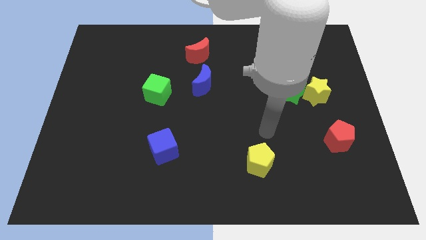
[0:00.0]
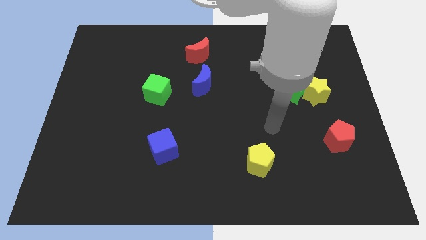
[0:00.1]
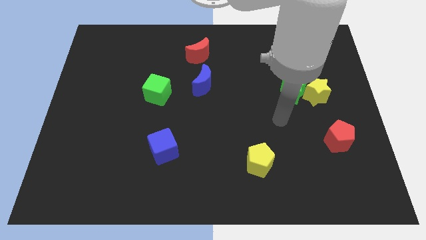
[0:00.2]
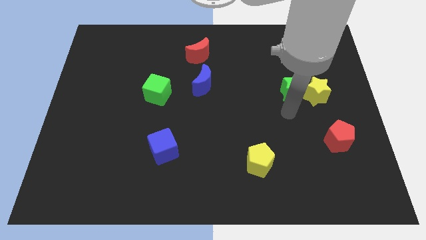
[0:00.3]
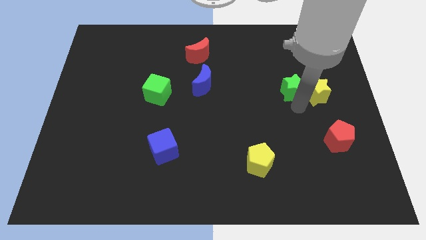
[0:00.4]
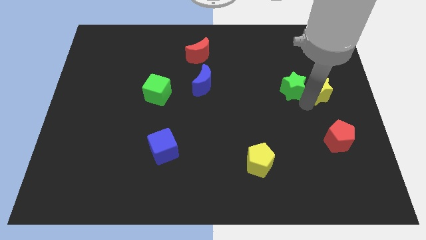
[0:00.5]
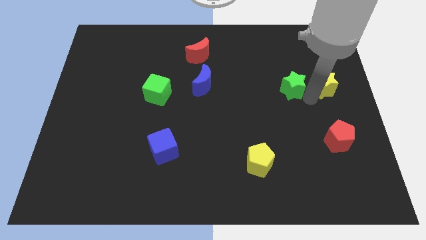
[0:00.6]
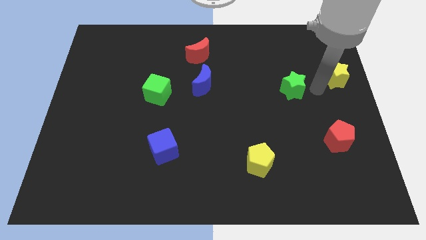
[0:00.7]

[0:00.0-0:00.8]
move the green star away from the yellow star

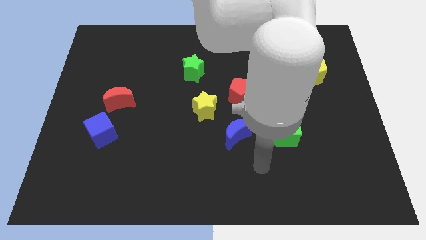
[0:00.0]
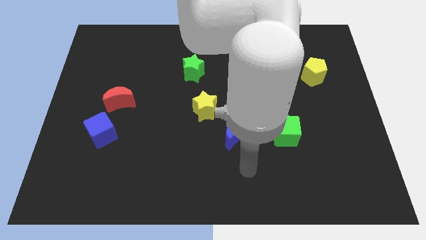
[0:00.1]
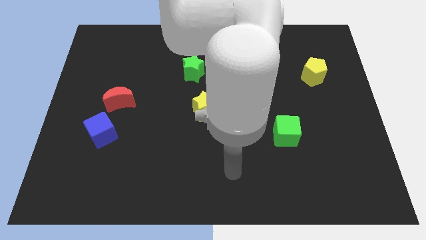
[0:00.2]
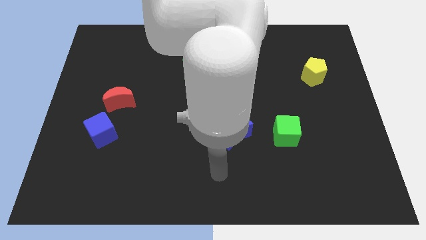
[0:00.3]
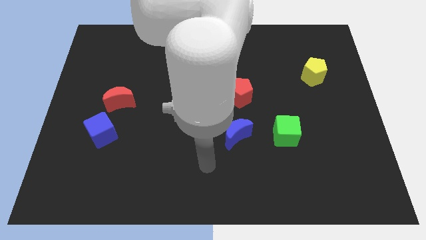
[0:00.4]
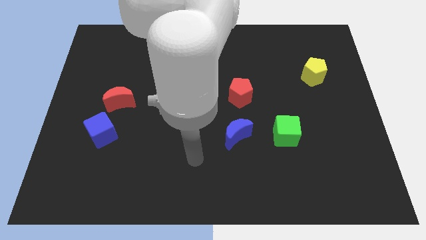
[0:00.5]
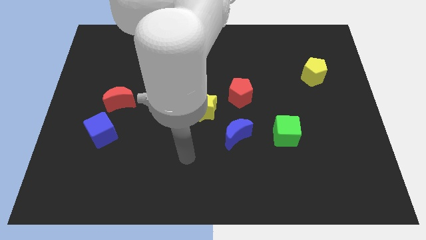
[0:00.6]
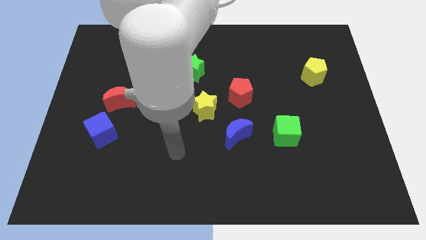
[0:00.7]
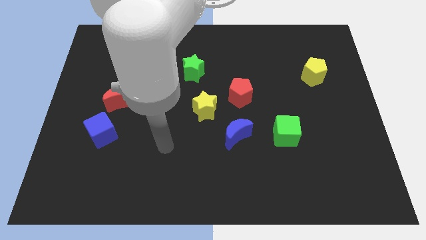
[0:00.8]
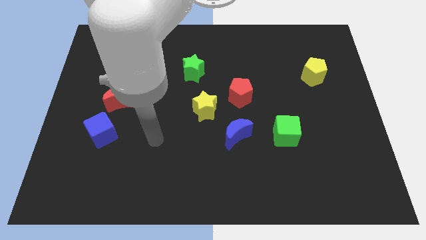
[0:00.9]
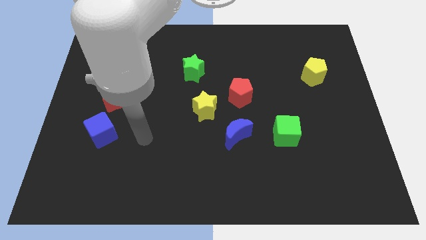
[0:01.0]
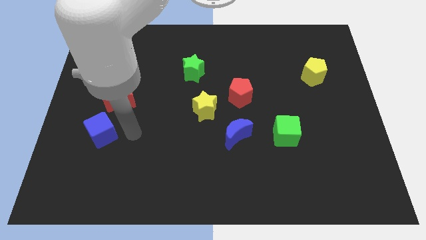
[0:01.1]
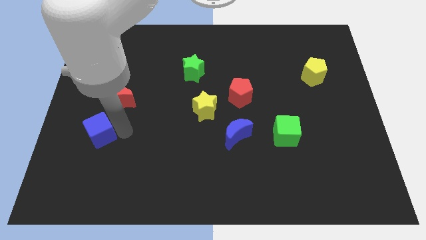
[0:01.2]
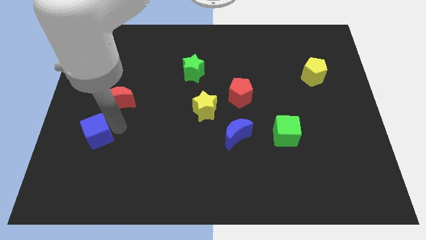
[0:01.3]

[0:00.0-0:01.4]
separate the red moon from the blue cube

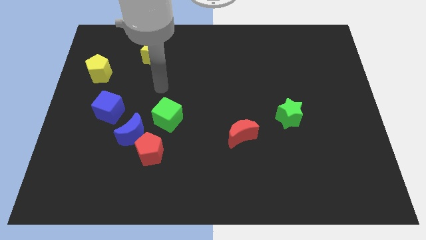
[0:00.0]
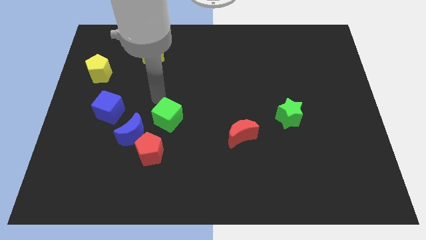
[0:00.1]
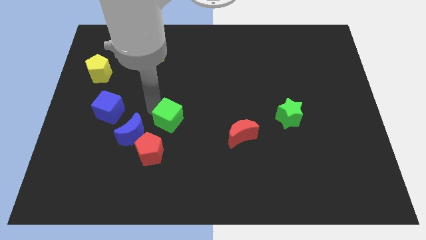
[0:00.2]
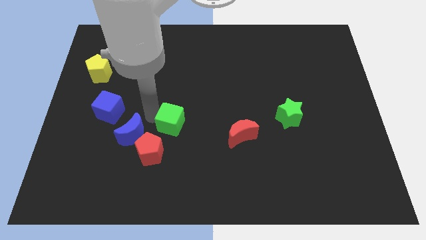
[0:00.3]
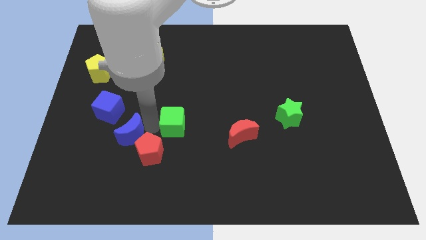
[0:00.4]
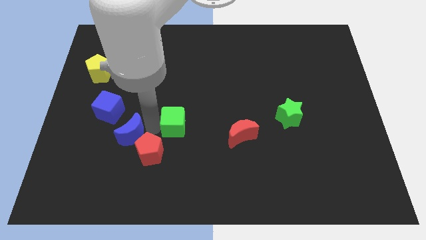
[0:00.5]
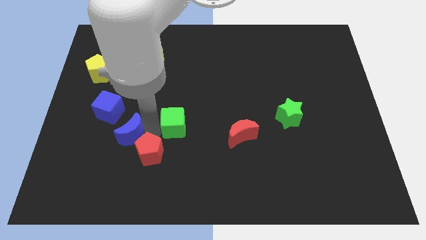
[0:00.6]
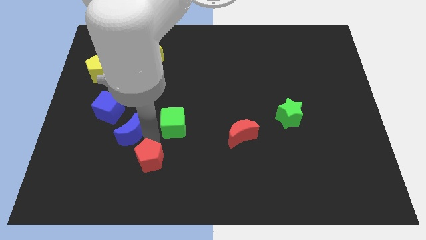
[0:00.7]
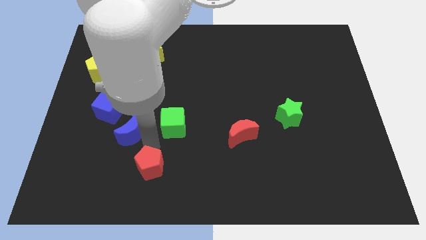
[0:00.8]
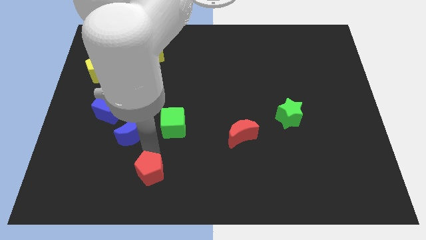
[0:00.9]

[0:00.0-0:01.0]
separate the red pentagon from the blue moon and green cube

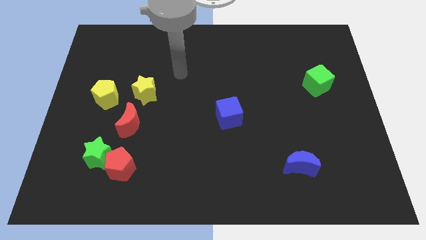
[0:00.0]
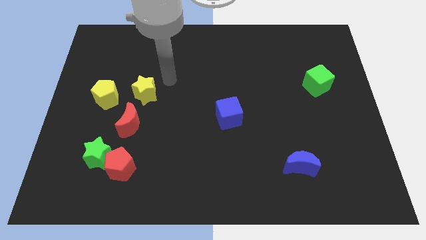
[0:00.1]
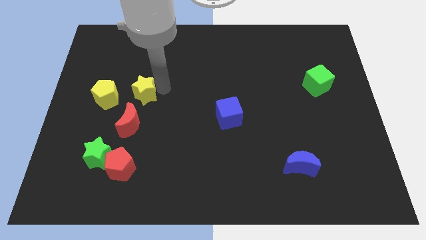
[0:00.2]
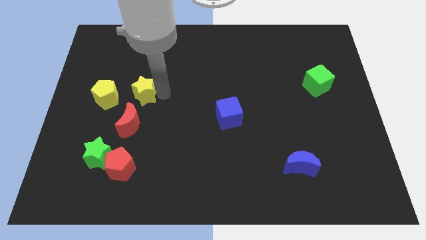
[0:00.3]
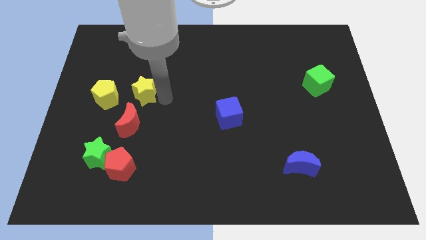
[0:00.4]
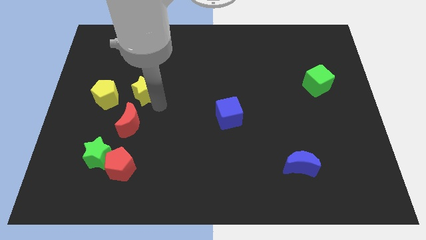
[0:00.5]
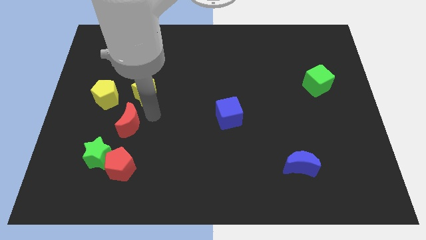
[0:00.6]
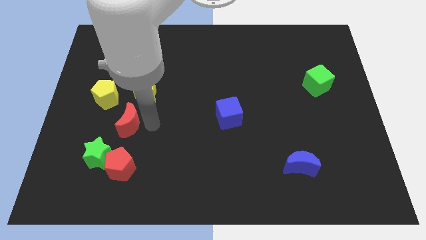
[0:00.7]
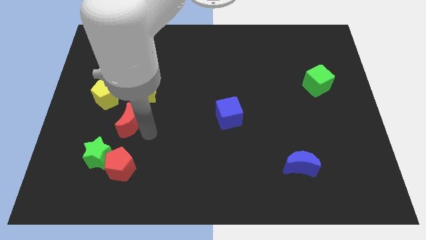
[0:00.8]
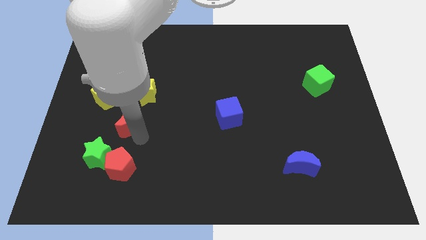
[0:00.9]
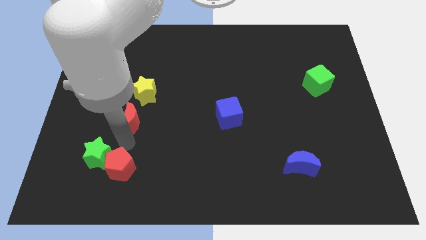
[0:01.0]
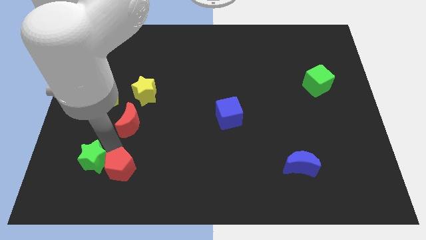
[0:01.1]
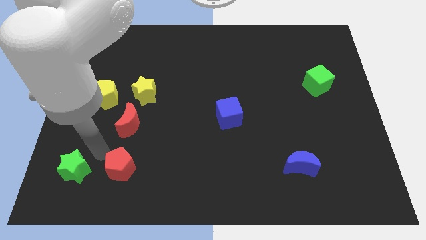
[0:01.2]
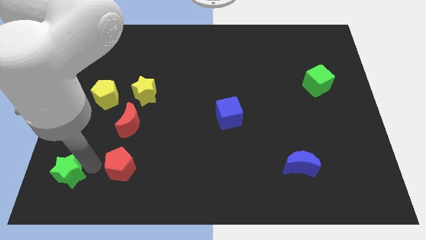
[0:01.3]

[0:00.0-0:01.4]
move the red pentagon away from the green star

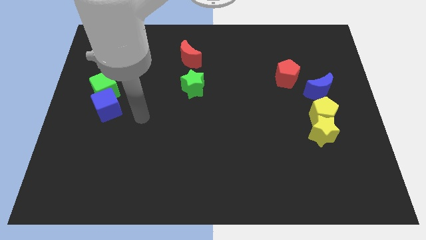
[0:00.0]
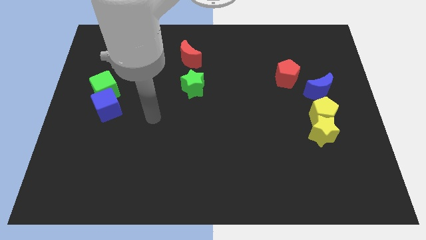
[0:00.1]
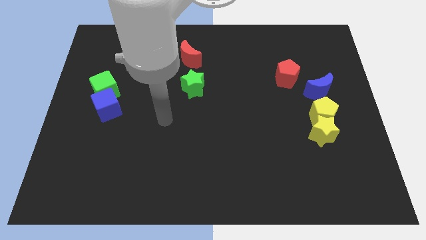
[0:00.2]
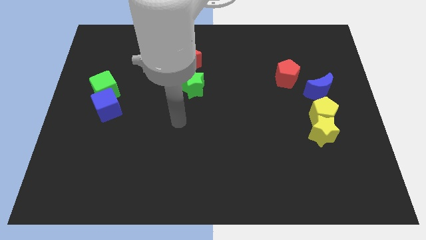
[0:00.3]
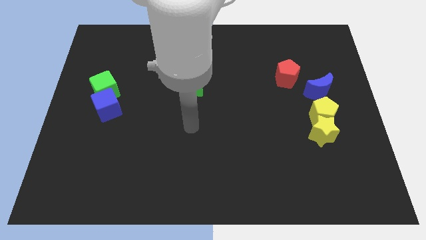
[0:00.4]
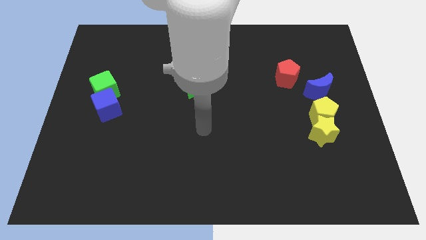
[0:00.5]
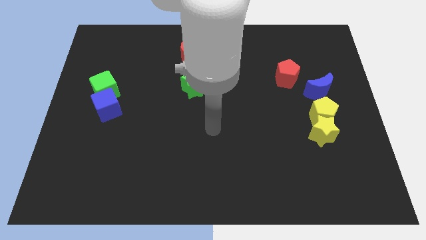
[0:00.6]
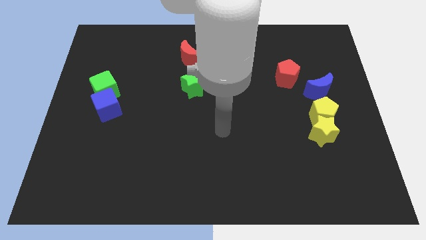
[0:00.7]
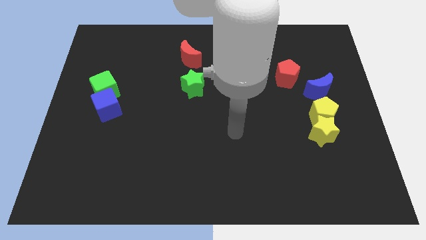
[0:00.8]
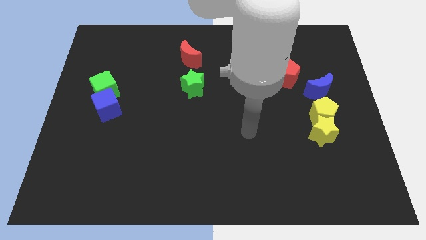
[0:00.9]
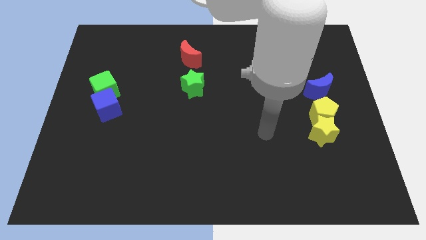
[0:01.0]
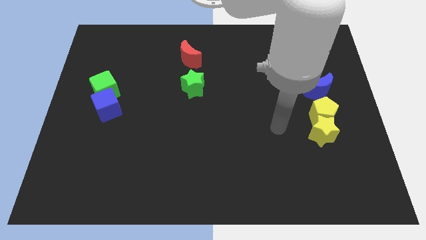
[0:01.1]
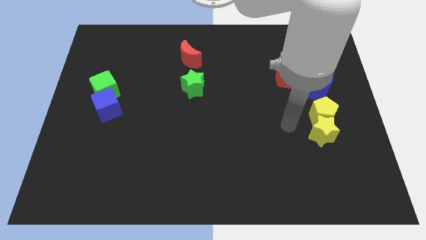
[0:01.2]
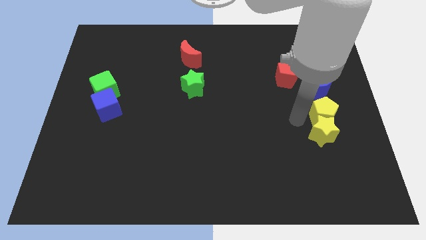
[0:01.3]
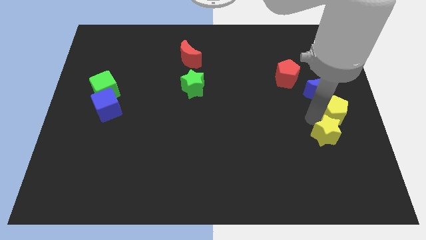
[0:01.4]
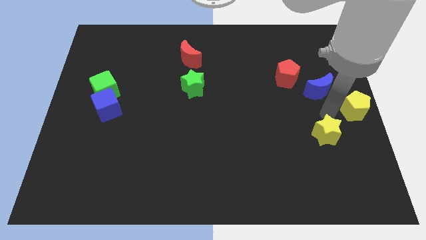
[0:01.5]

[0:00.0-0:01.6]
move the yellow star away from the yellow pentagon

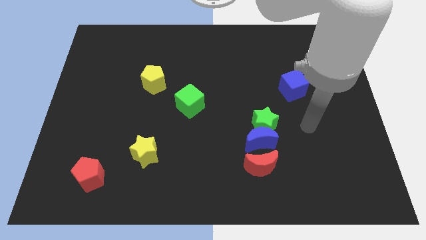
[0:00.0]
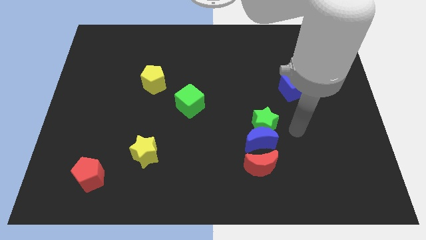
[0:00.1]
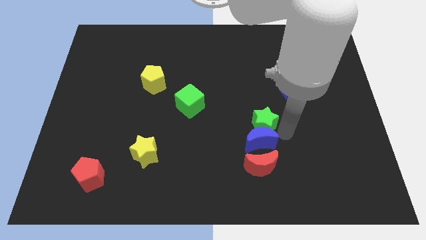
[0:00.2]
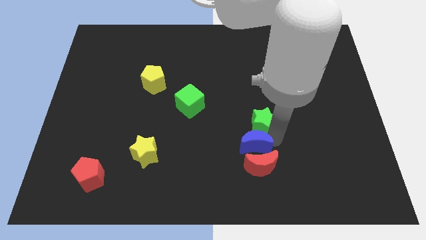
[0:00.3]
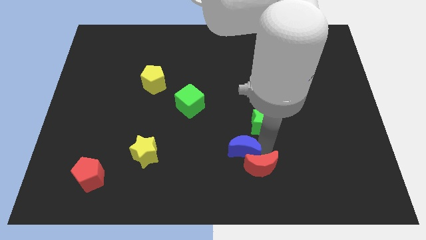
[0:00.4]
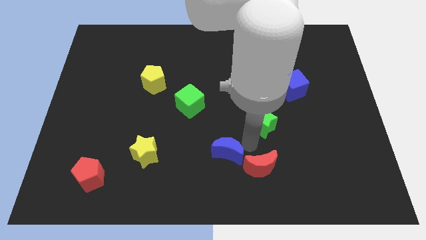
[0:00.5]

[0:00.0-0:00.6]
separate the green star from the blue moon

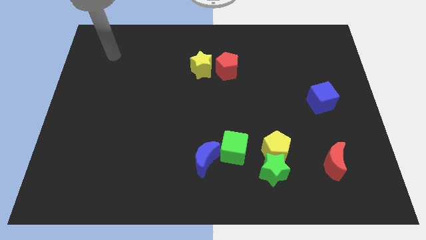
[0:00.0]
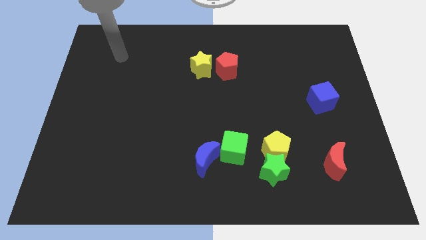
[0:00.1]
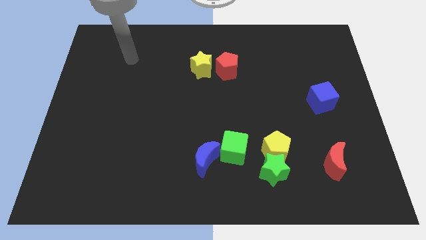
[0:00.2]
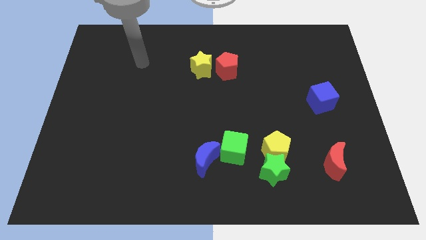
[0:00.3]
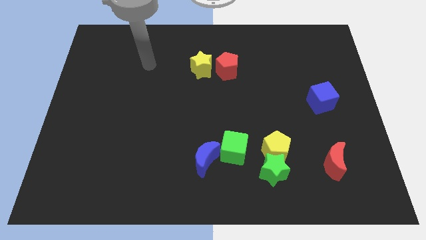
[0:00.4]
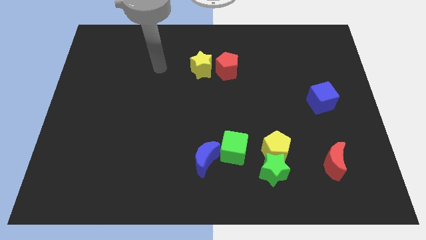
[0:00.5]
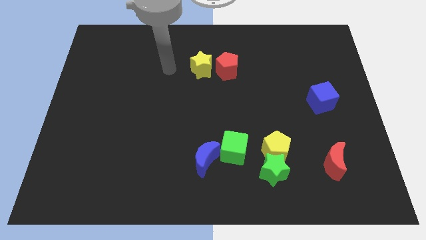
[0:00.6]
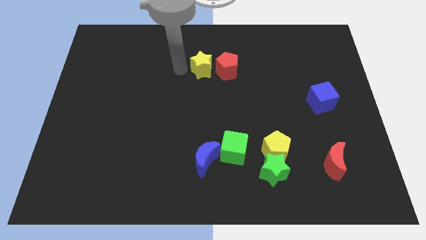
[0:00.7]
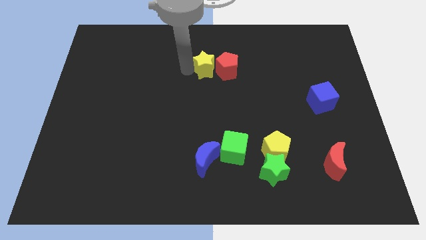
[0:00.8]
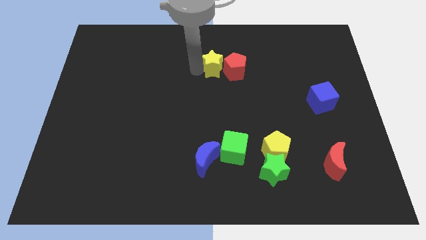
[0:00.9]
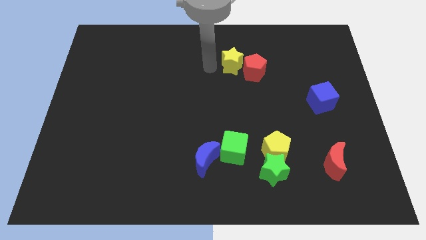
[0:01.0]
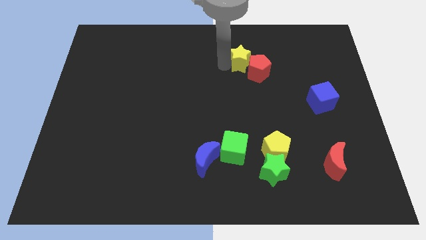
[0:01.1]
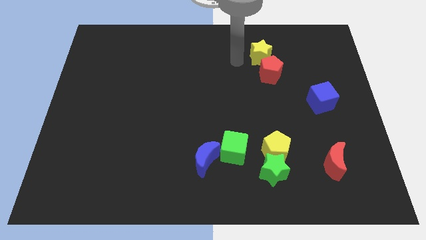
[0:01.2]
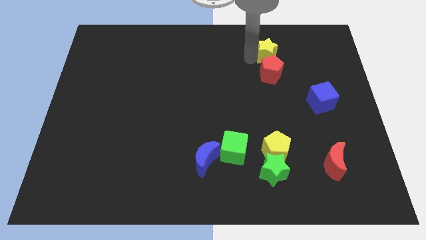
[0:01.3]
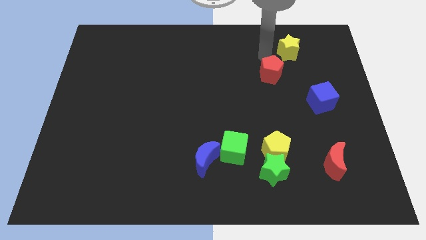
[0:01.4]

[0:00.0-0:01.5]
move the red pentagon away from the yellow star

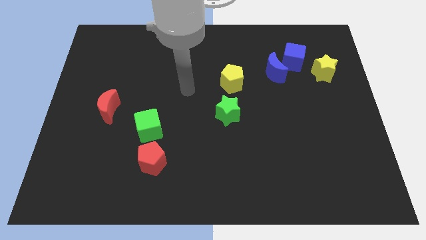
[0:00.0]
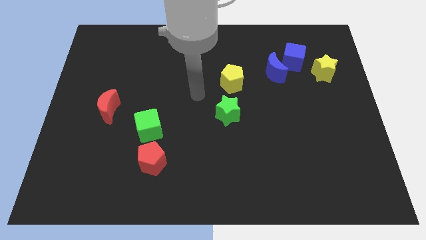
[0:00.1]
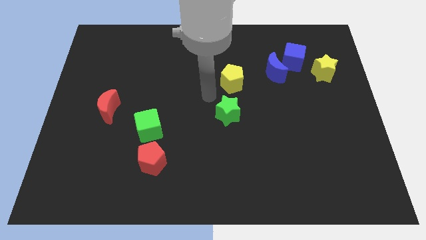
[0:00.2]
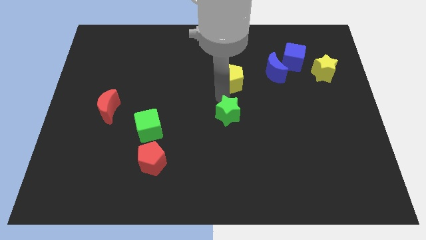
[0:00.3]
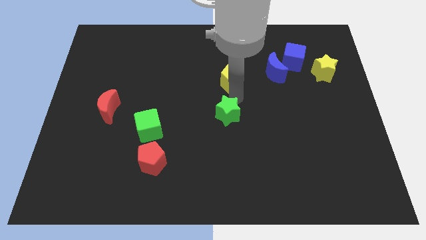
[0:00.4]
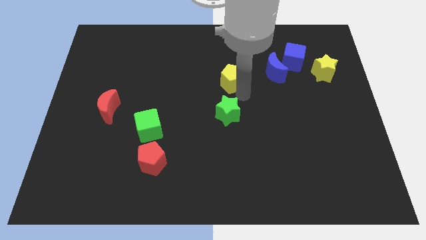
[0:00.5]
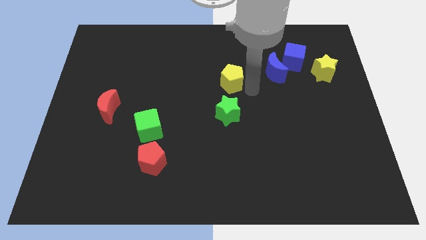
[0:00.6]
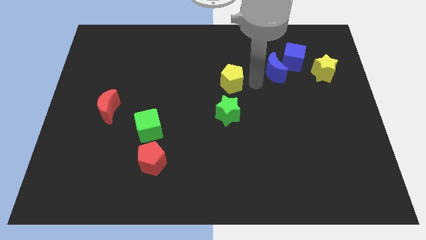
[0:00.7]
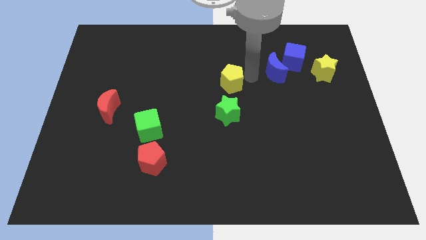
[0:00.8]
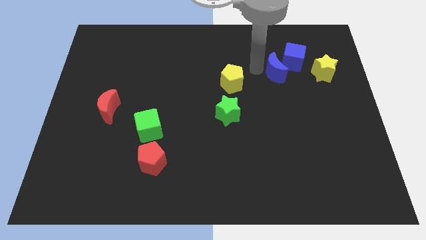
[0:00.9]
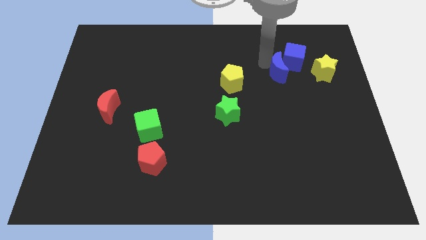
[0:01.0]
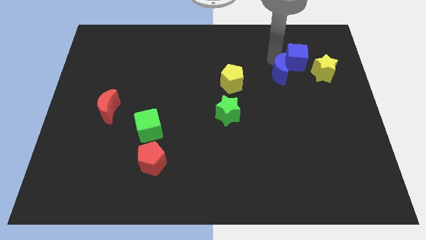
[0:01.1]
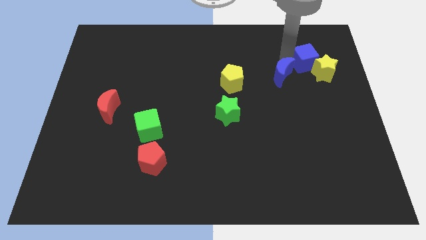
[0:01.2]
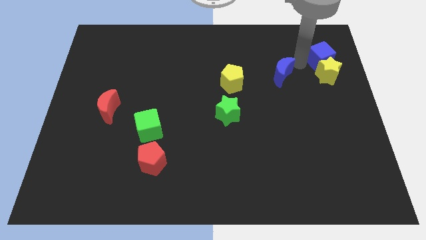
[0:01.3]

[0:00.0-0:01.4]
pull the blue moon apart from the blue cube
